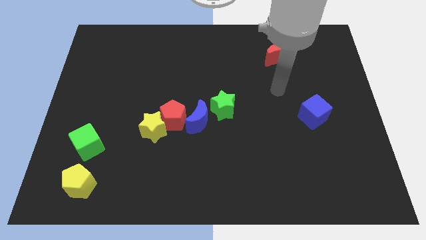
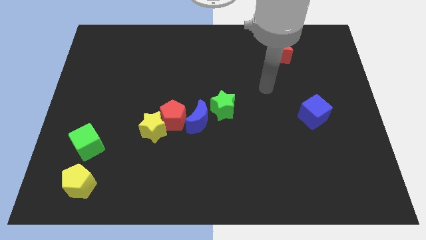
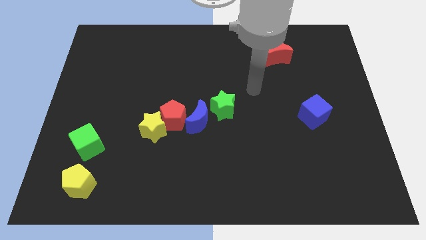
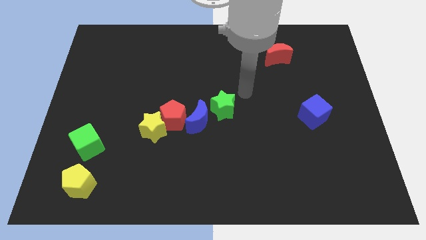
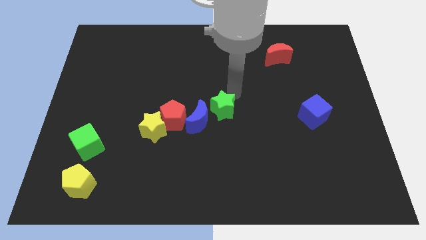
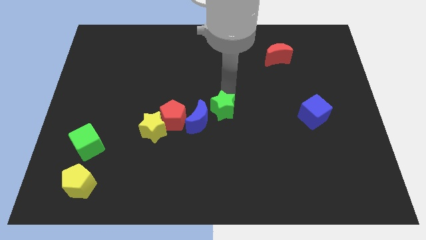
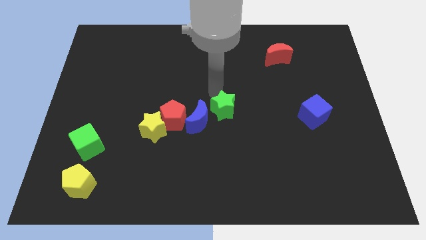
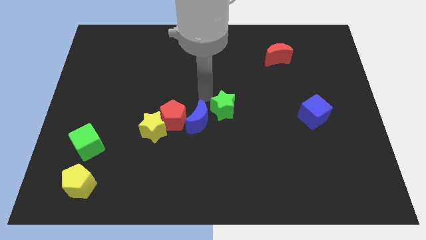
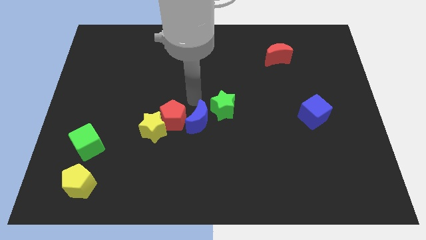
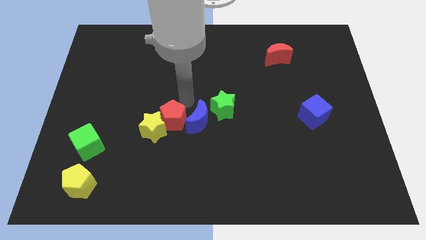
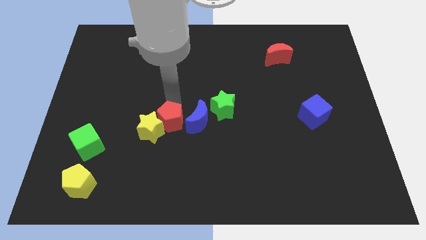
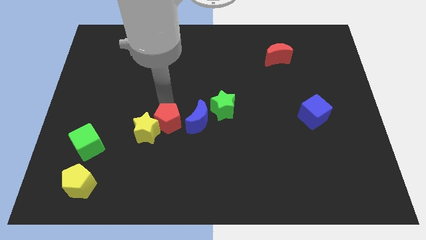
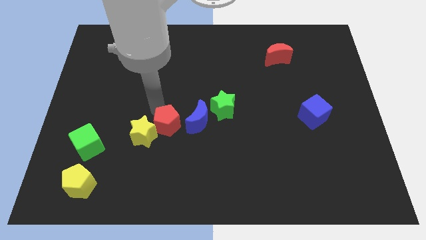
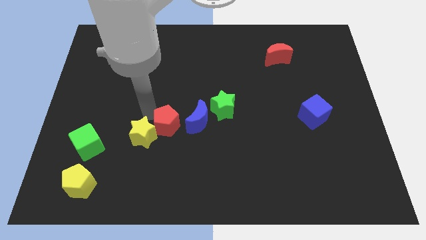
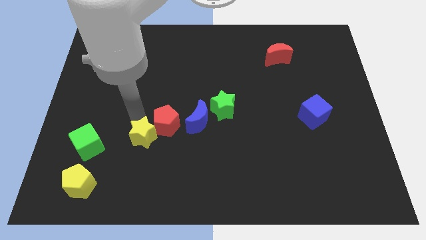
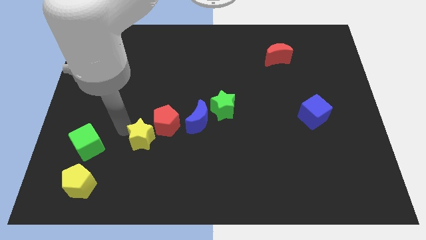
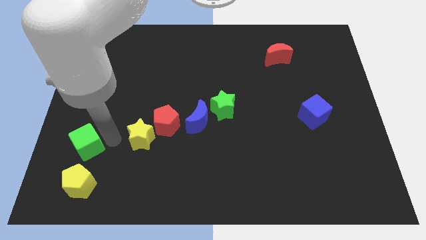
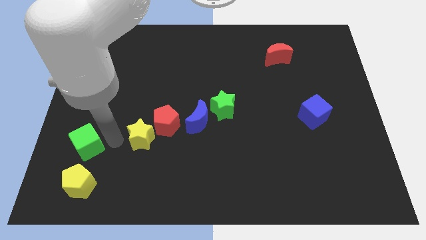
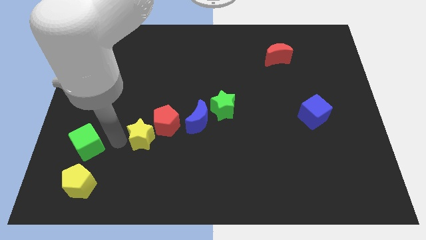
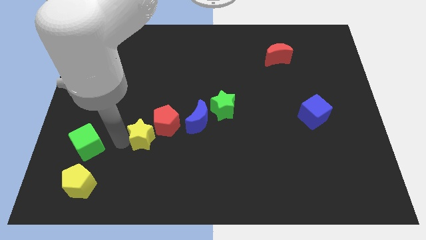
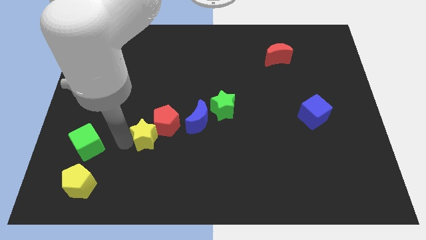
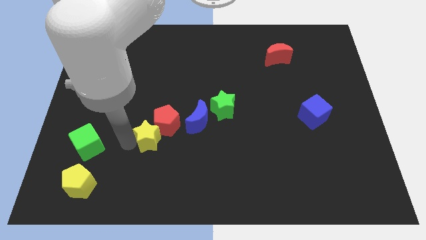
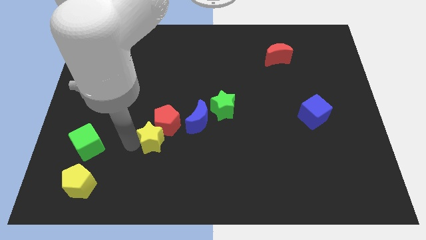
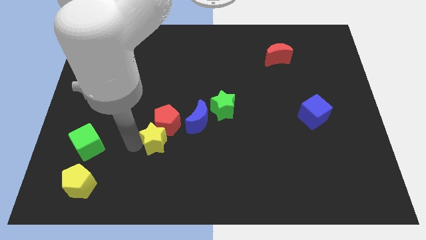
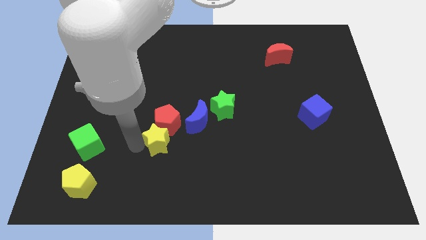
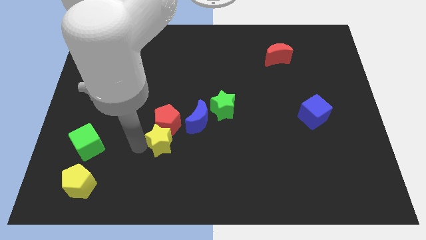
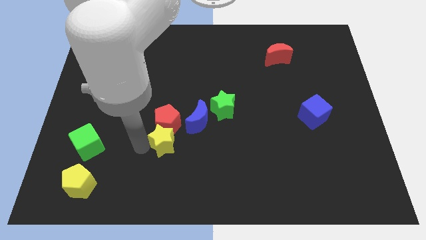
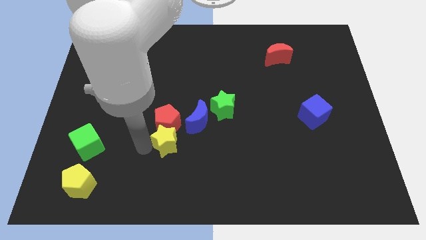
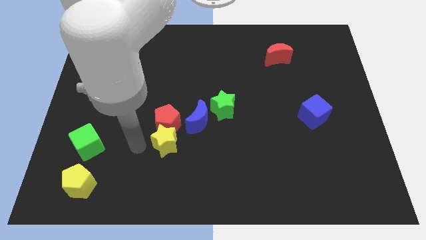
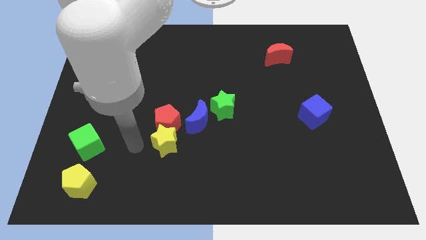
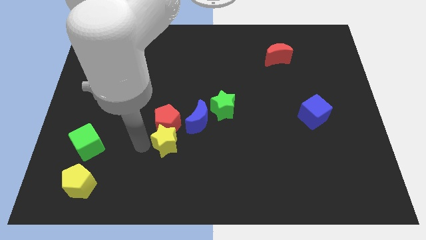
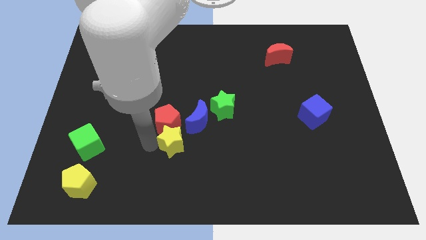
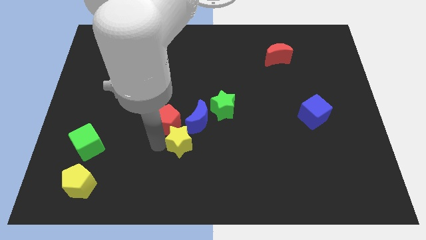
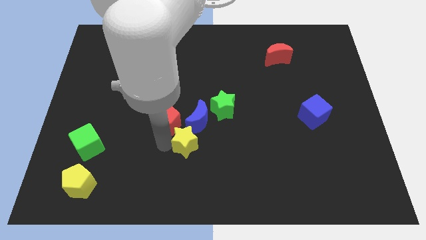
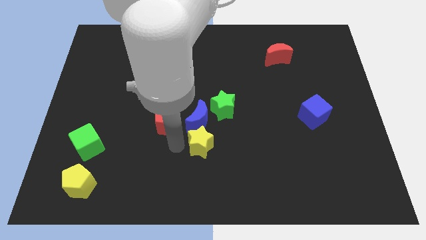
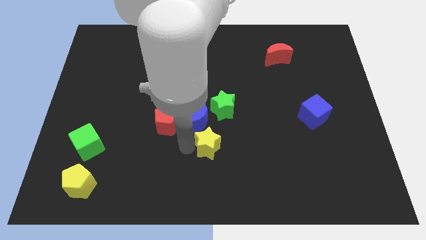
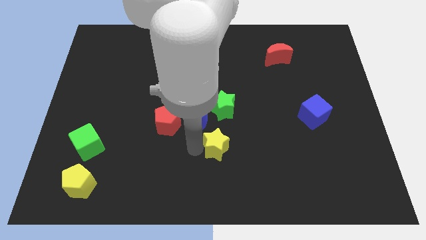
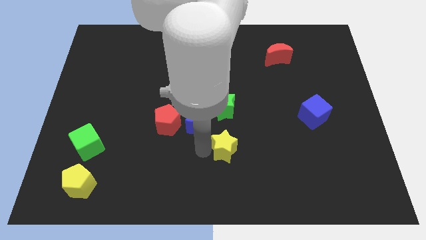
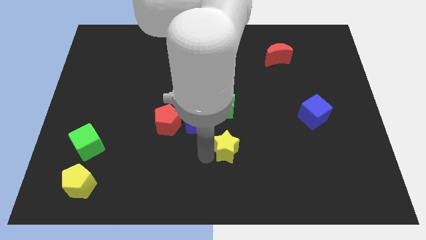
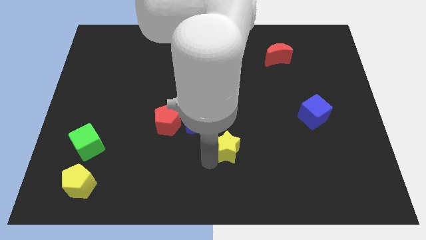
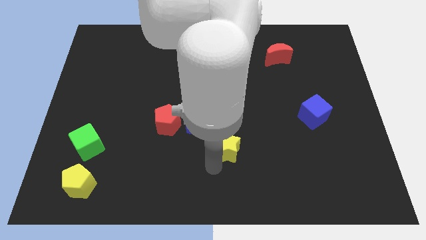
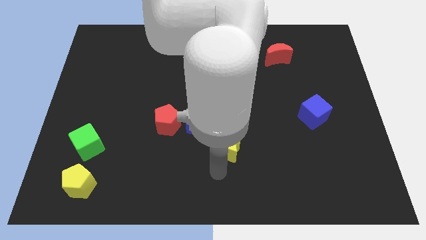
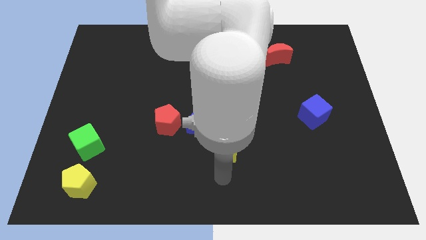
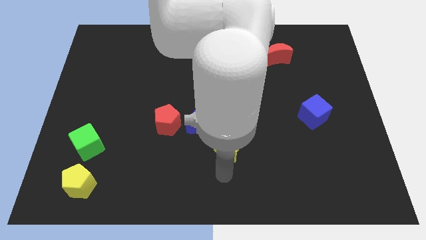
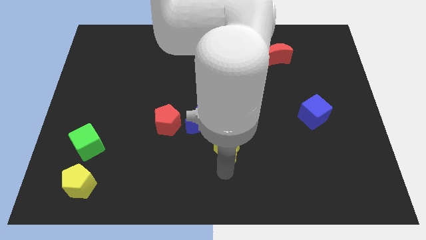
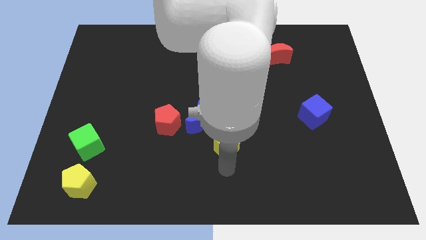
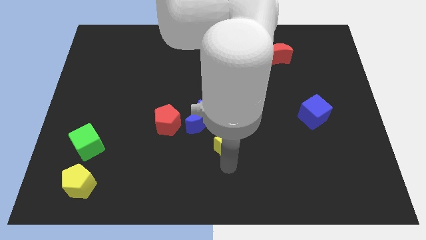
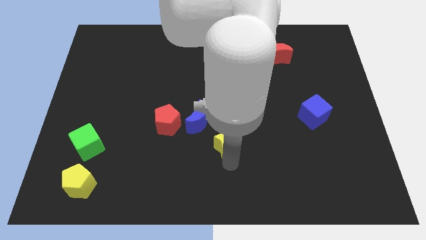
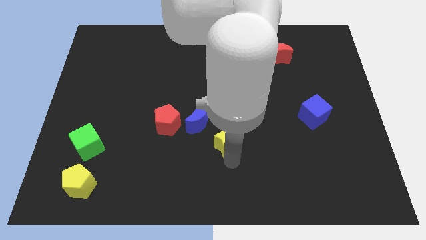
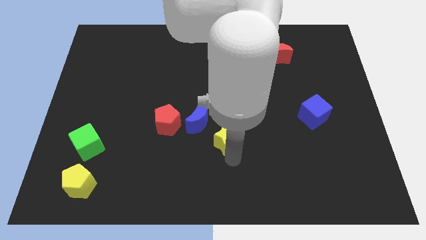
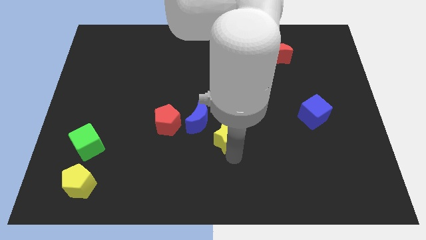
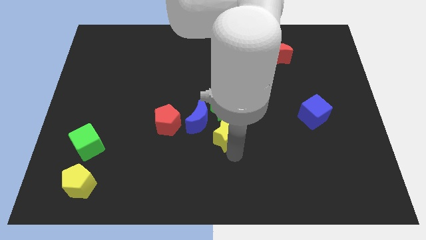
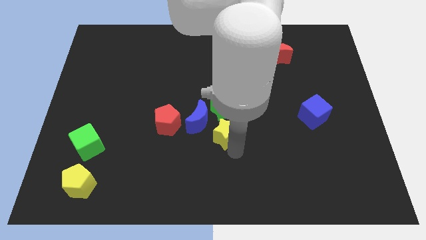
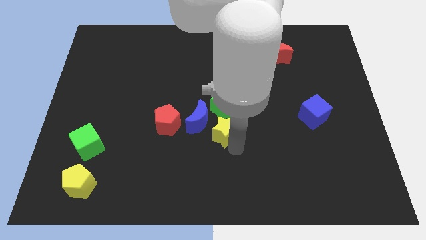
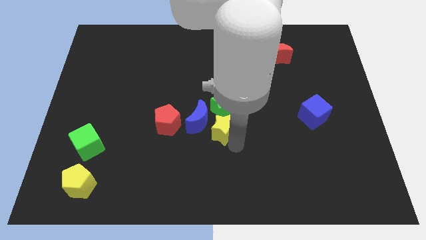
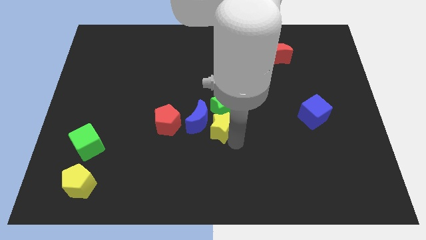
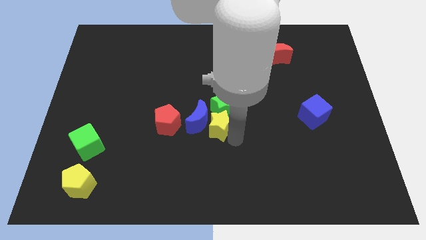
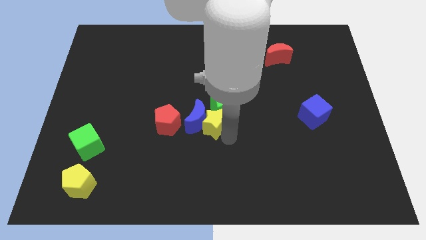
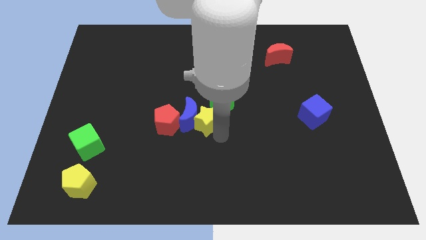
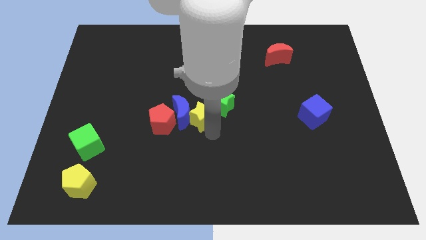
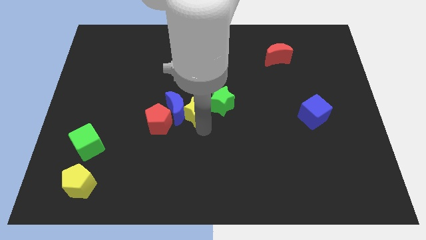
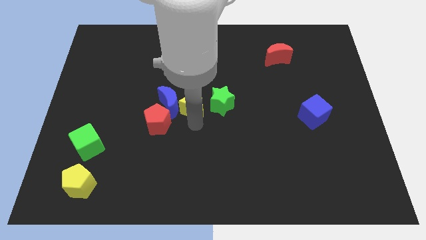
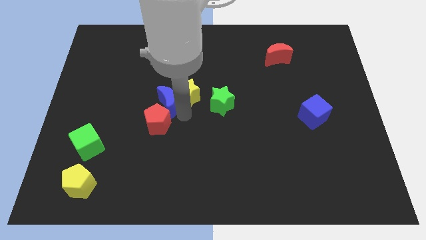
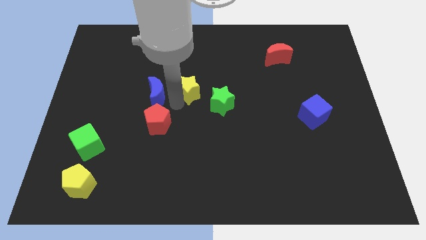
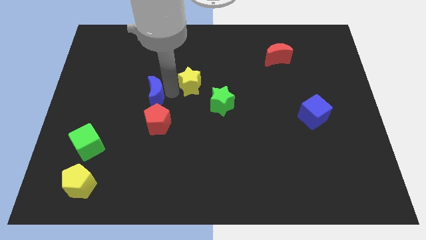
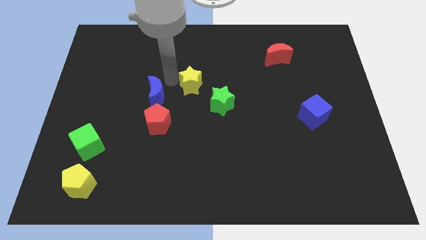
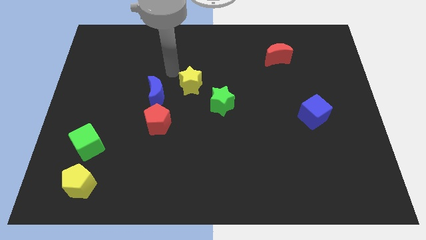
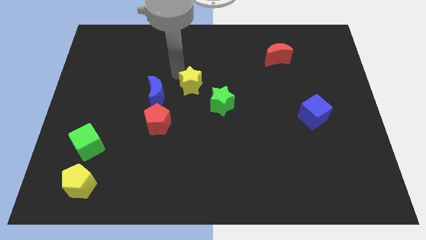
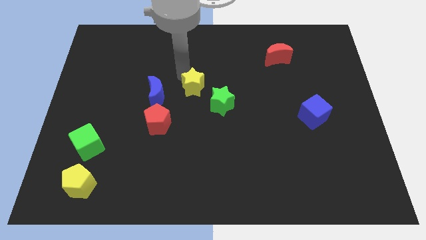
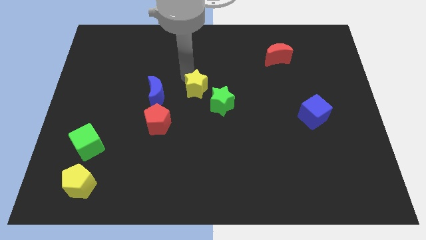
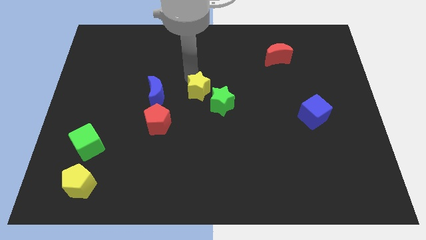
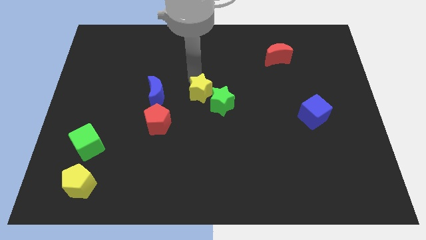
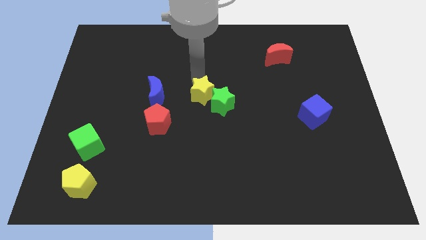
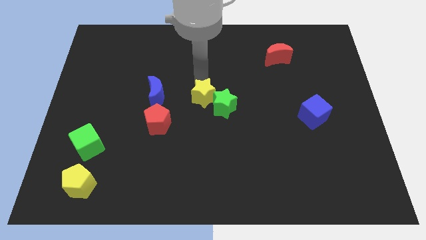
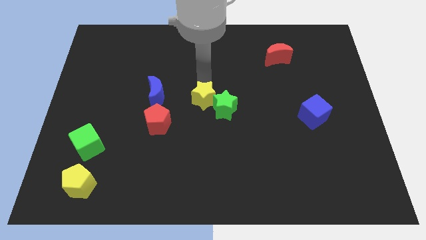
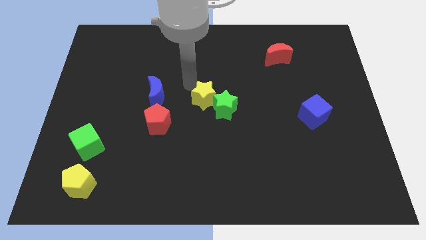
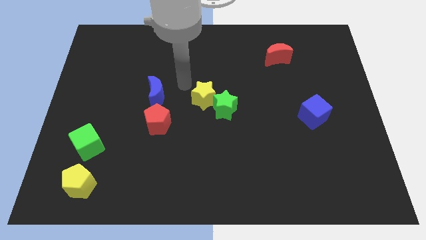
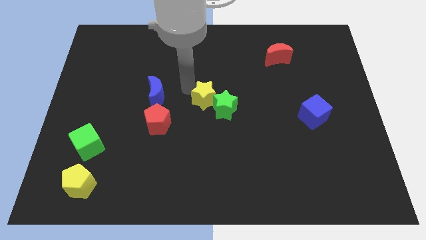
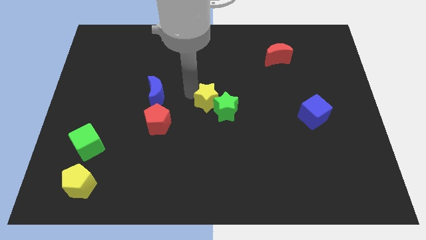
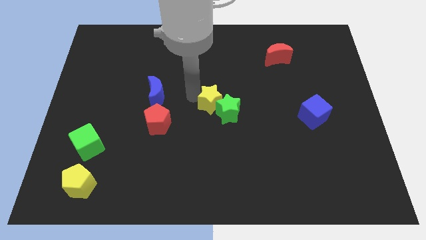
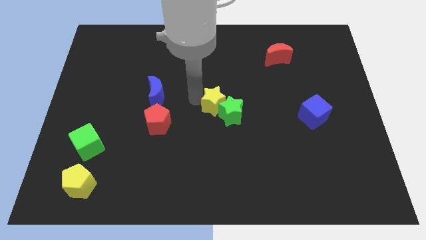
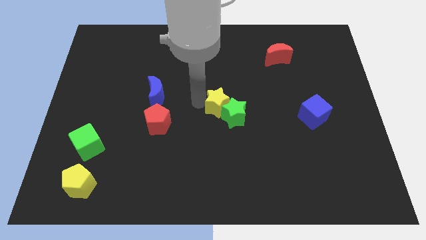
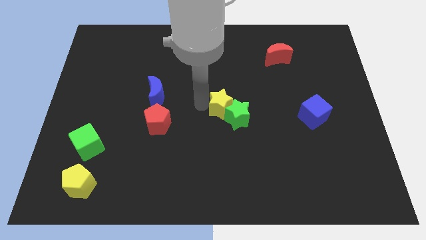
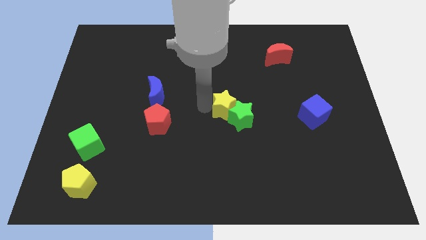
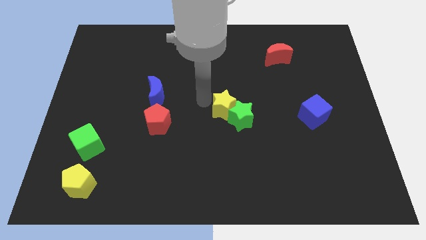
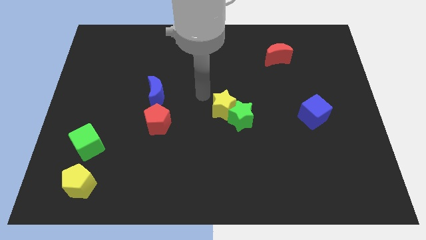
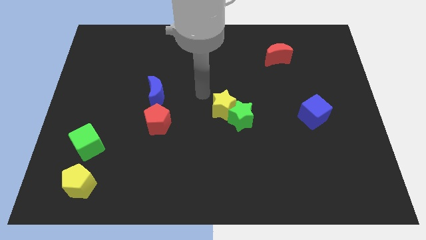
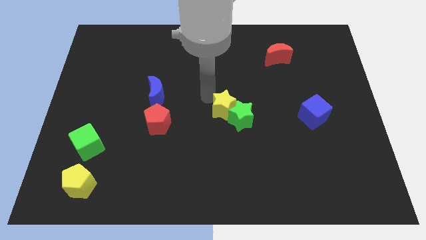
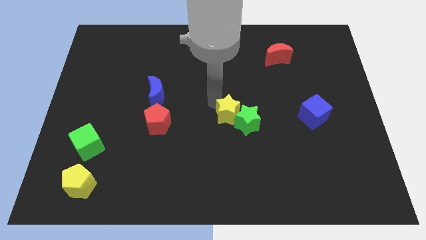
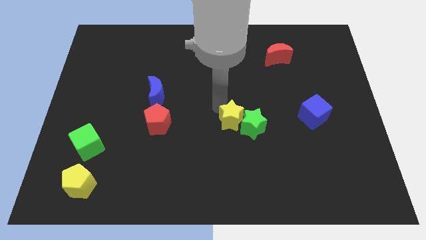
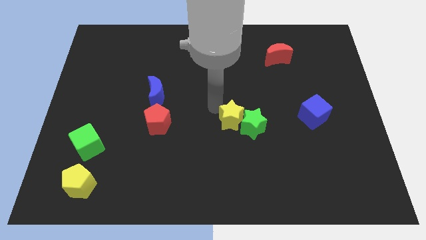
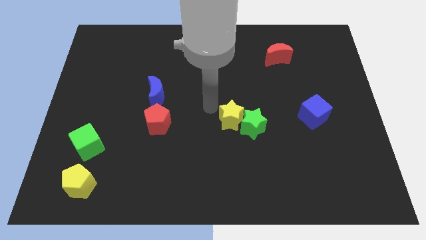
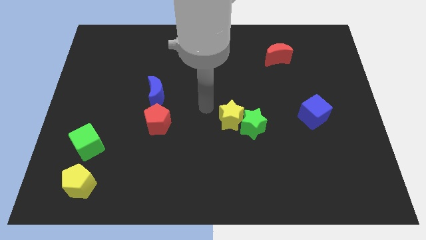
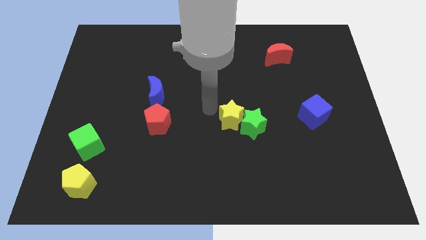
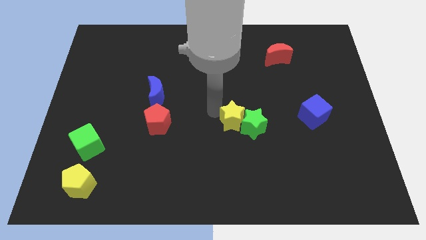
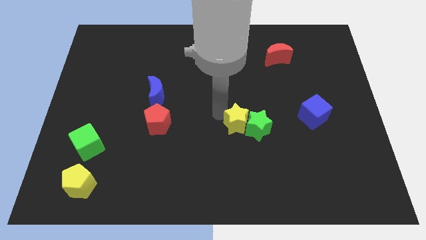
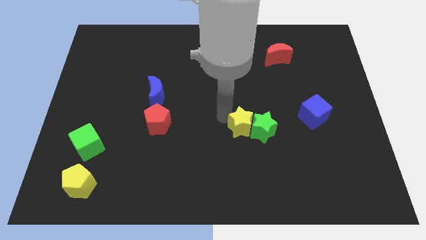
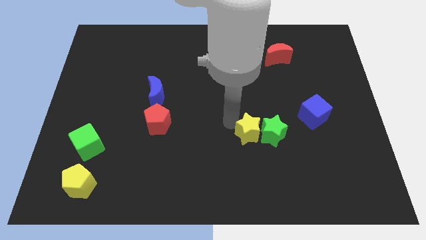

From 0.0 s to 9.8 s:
slide the yellow star to the right
